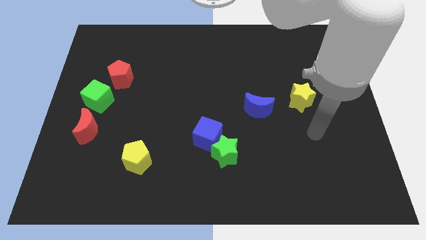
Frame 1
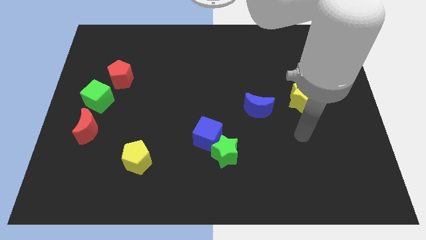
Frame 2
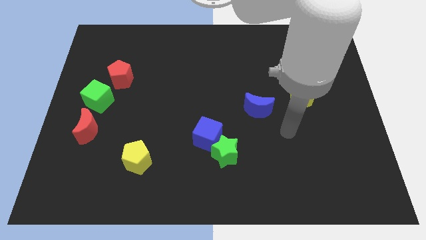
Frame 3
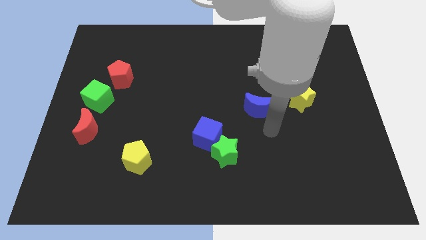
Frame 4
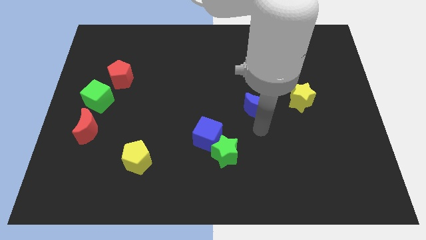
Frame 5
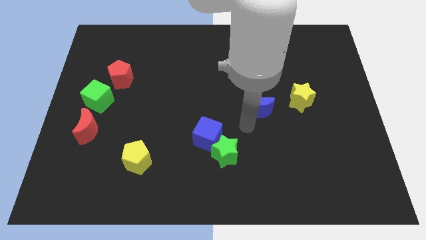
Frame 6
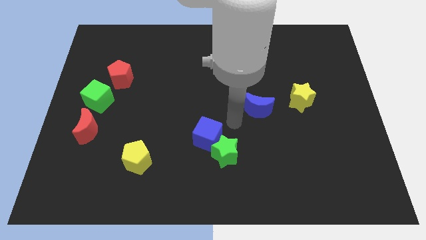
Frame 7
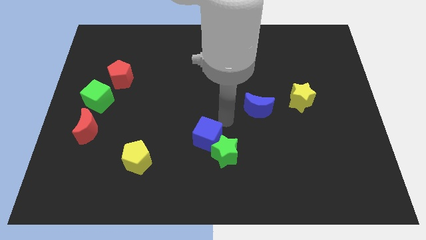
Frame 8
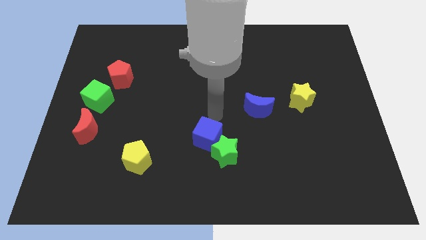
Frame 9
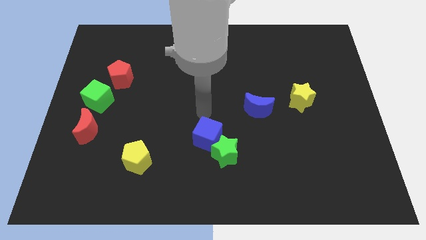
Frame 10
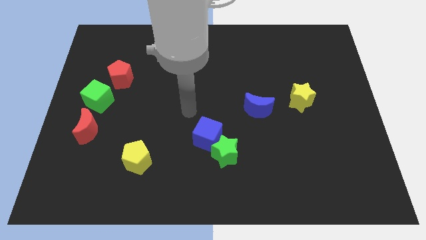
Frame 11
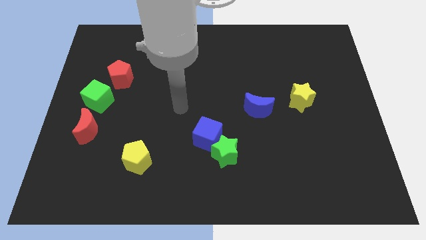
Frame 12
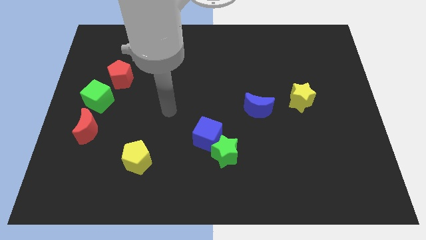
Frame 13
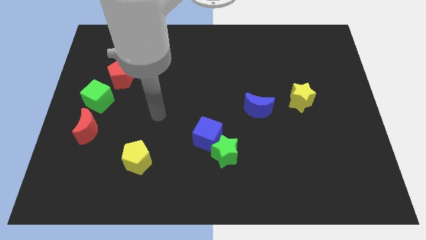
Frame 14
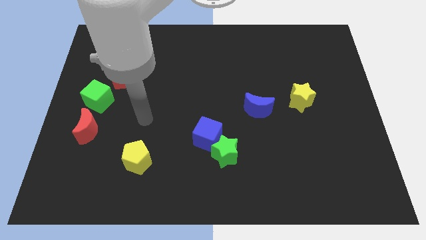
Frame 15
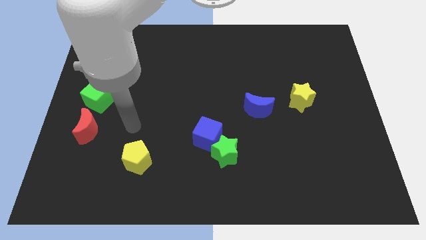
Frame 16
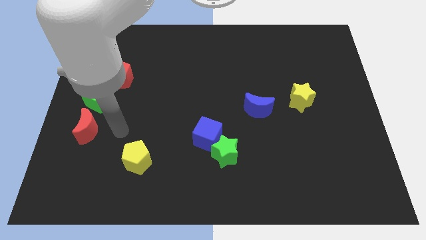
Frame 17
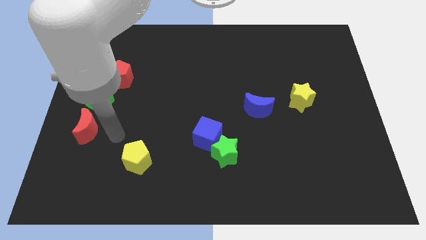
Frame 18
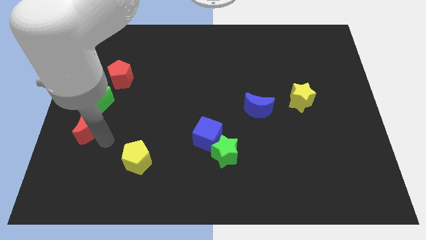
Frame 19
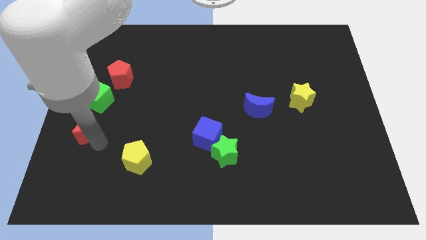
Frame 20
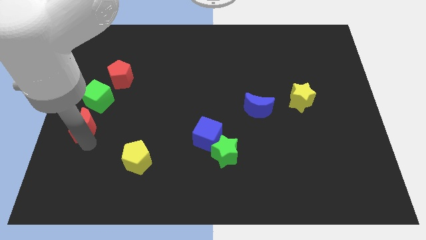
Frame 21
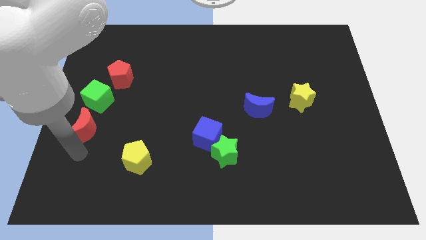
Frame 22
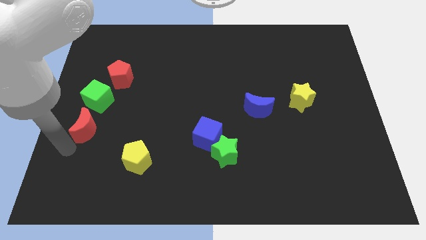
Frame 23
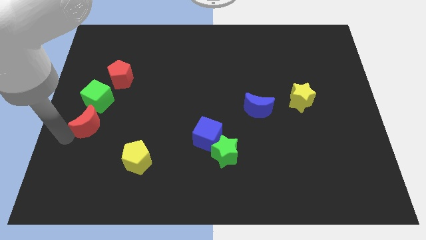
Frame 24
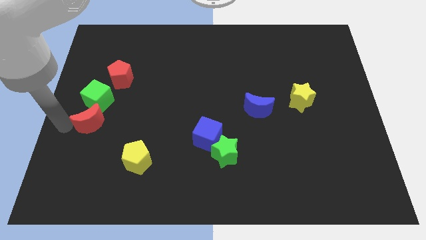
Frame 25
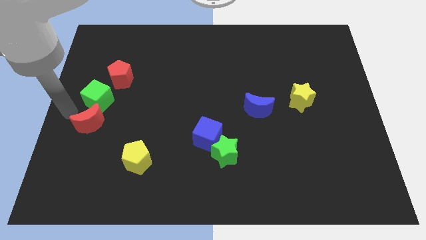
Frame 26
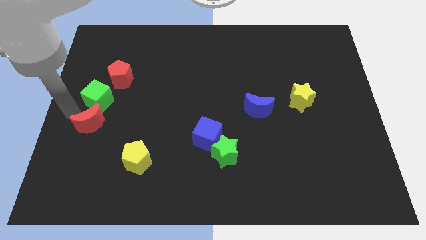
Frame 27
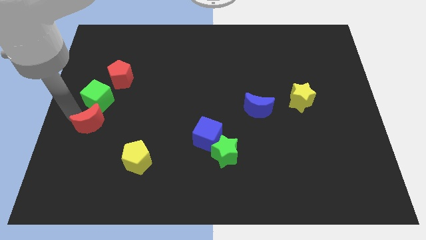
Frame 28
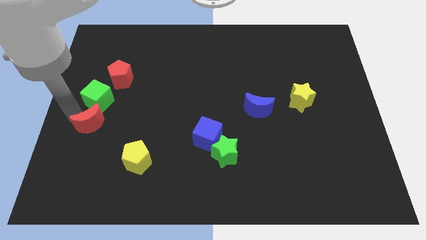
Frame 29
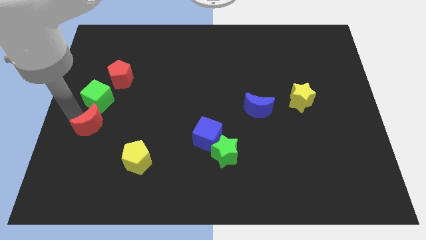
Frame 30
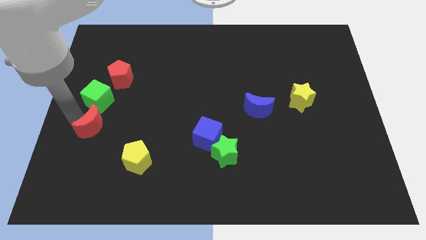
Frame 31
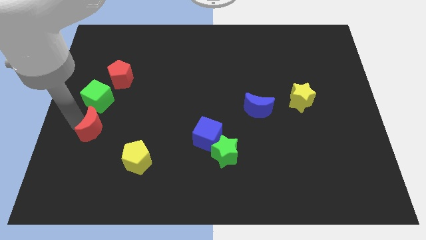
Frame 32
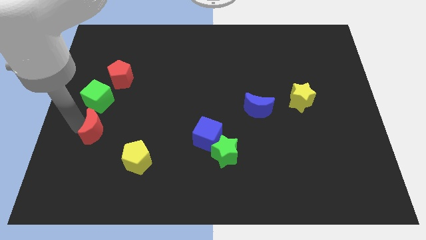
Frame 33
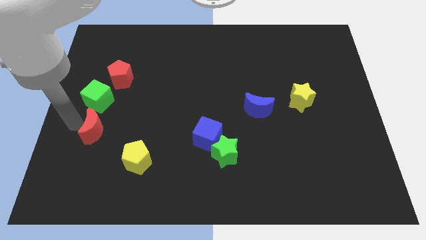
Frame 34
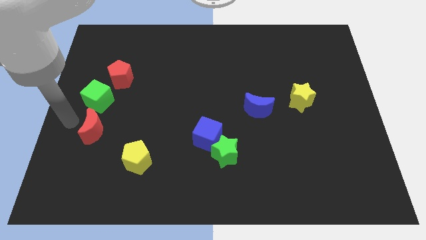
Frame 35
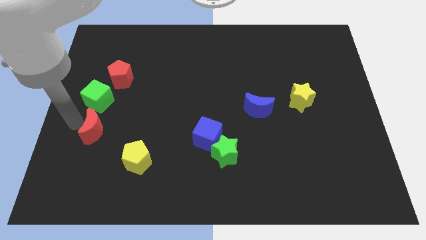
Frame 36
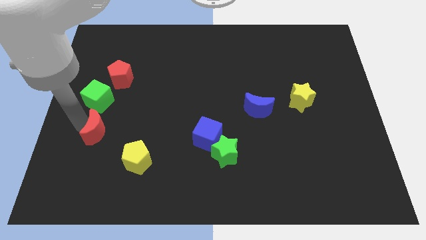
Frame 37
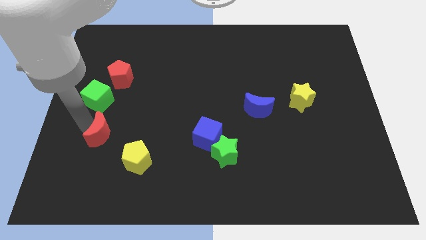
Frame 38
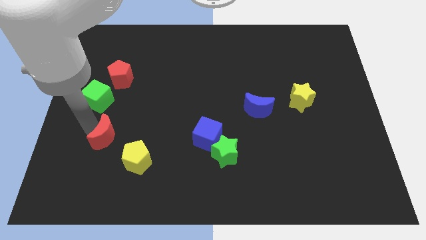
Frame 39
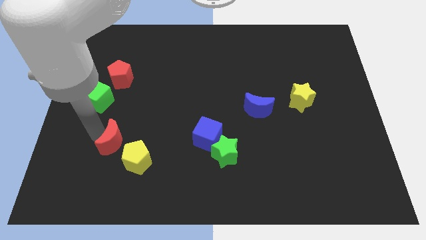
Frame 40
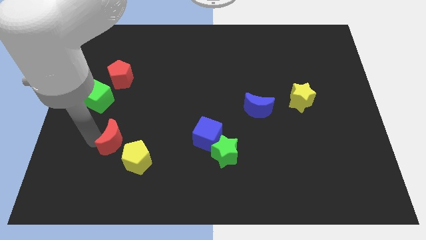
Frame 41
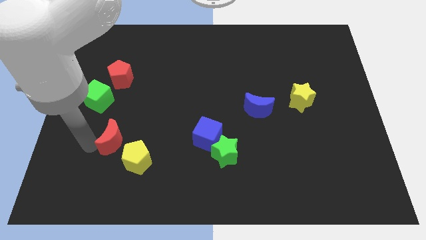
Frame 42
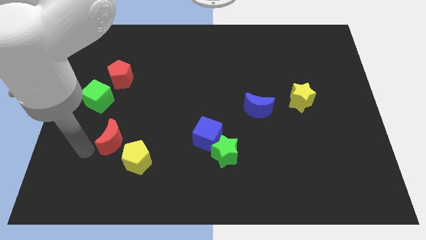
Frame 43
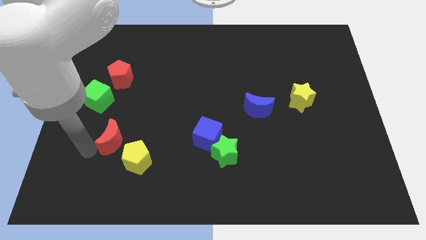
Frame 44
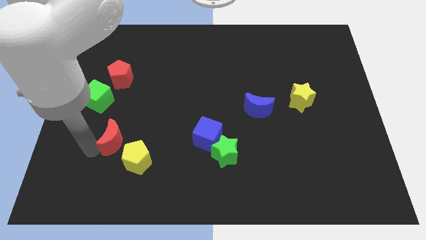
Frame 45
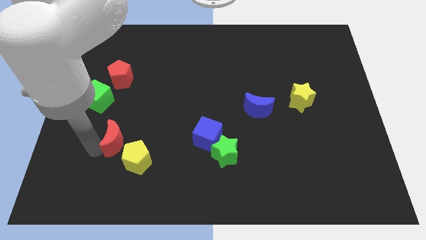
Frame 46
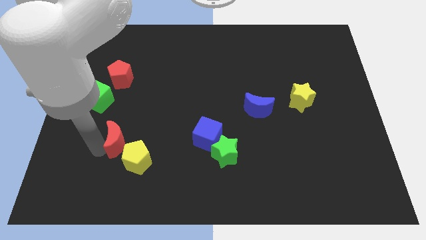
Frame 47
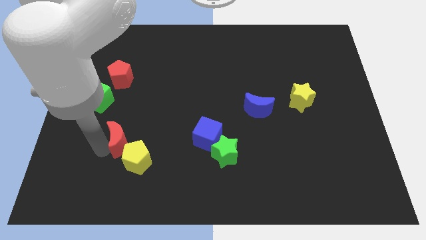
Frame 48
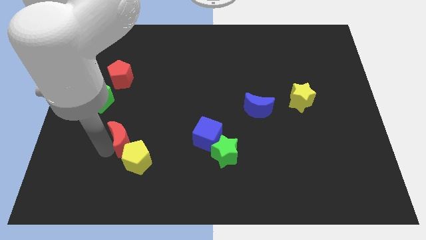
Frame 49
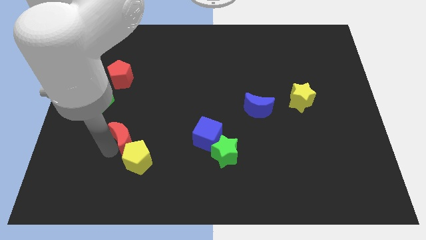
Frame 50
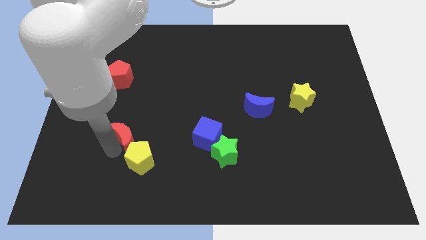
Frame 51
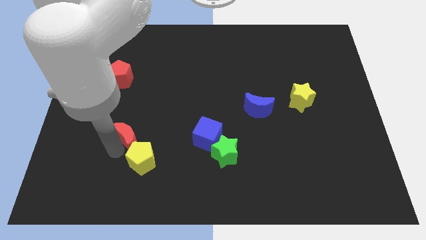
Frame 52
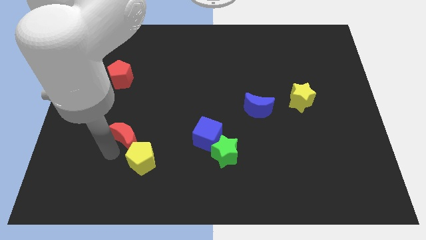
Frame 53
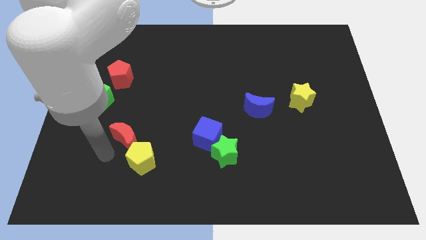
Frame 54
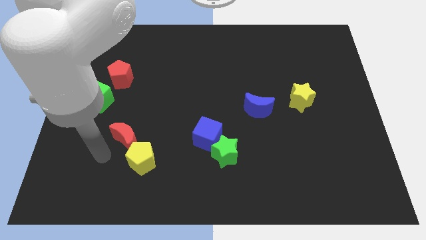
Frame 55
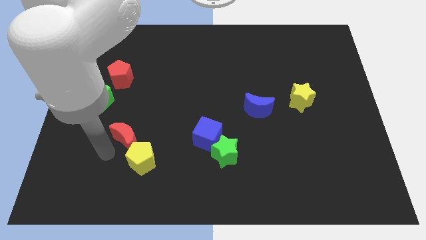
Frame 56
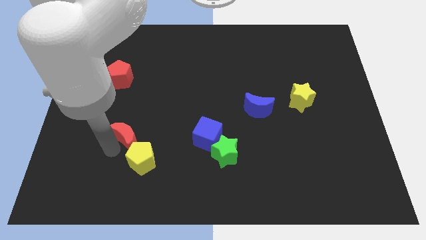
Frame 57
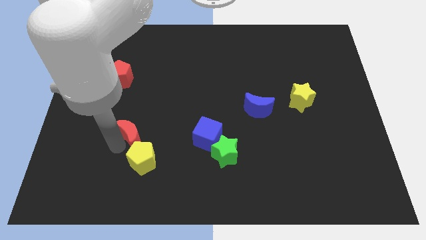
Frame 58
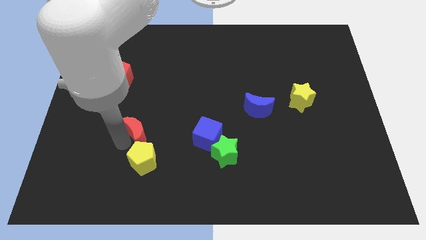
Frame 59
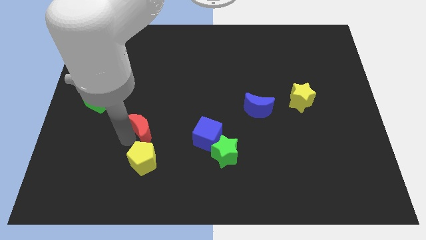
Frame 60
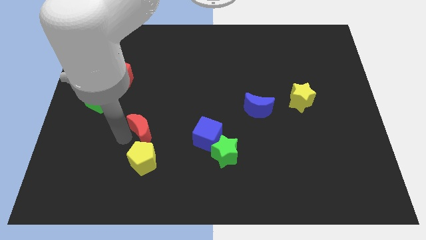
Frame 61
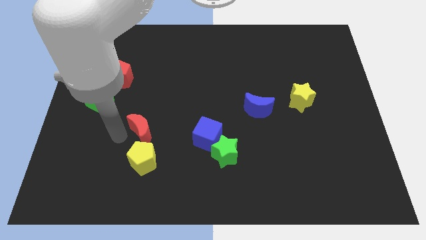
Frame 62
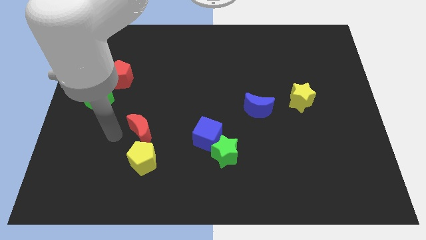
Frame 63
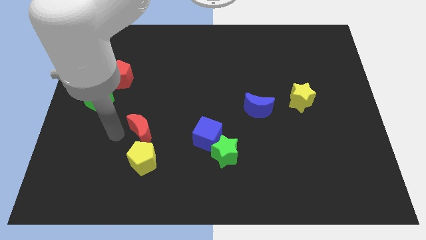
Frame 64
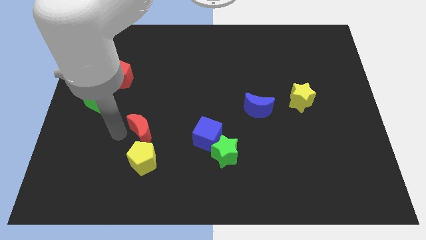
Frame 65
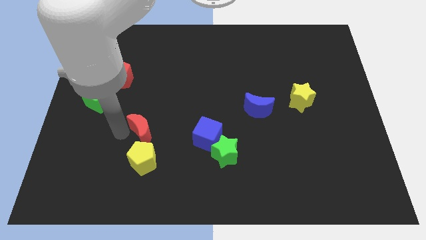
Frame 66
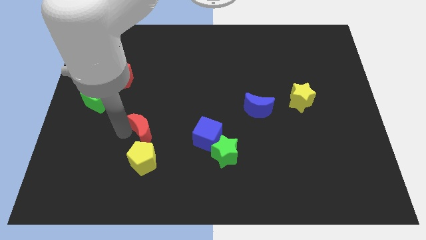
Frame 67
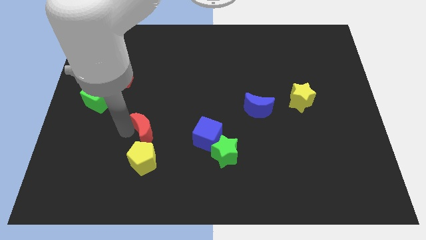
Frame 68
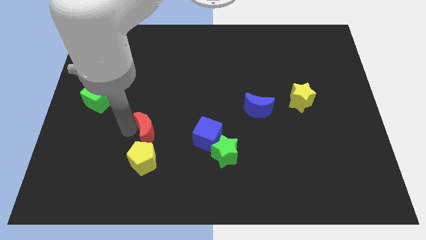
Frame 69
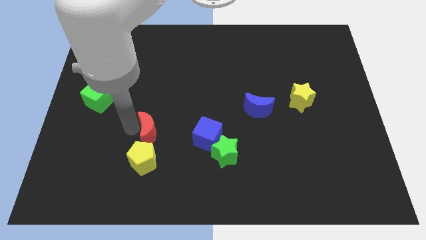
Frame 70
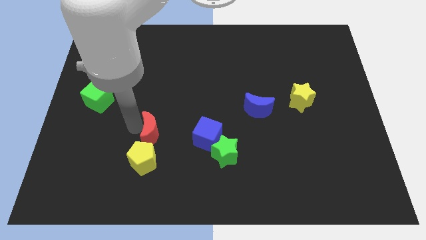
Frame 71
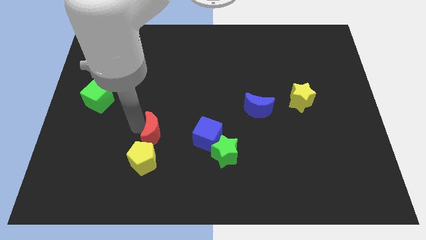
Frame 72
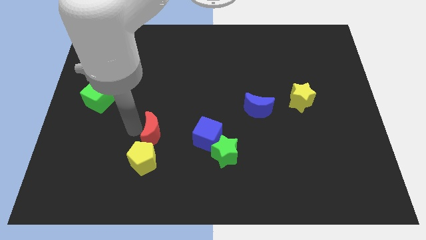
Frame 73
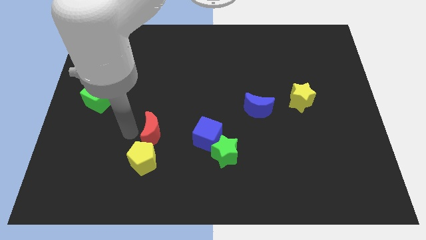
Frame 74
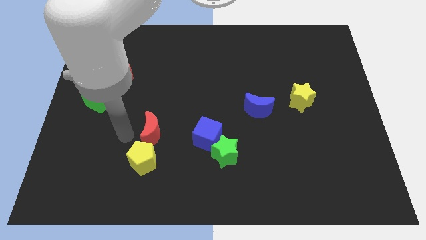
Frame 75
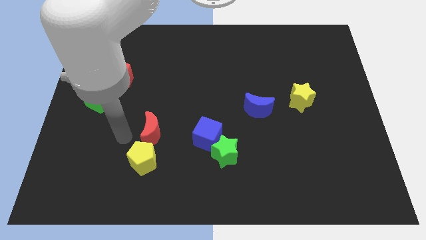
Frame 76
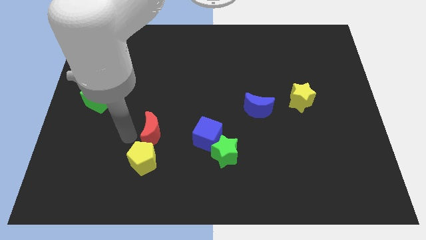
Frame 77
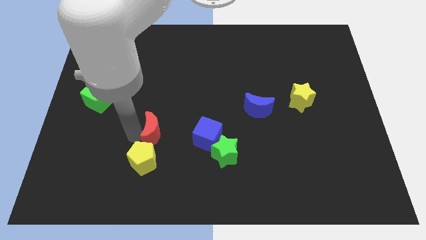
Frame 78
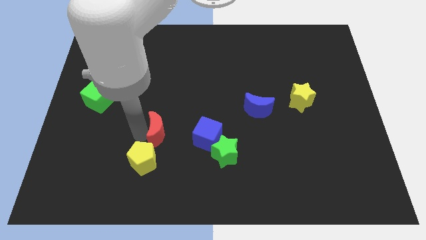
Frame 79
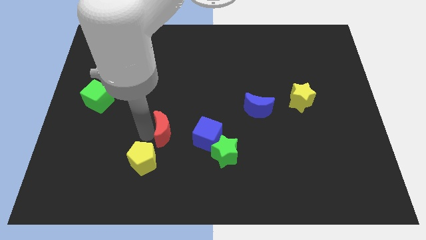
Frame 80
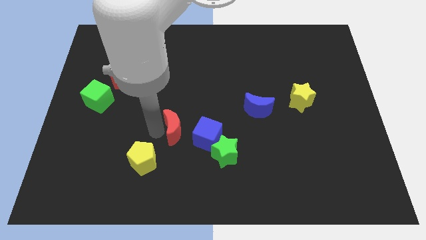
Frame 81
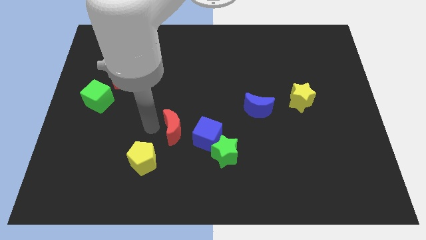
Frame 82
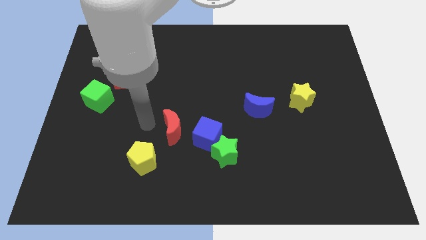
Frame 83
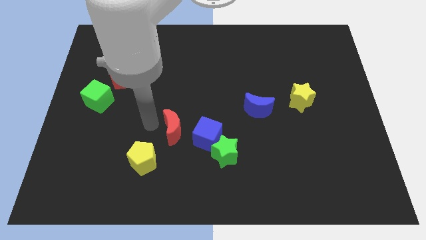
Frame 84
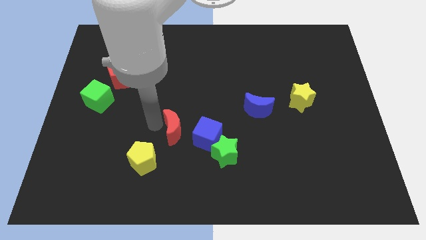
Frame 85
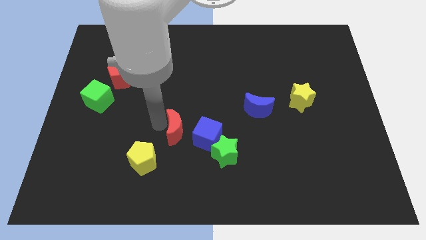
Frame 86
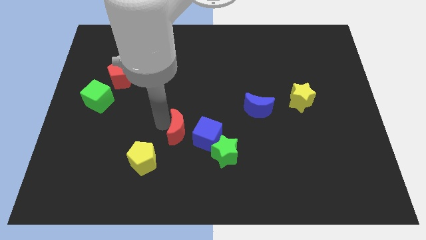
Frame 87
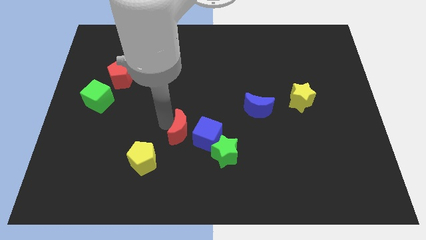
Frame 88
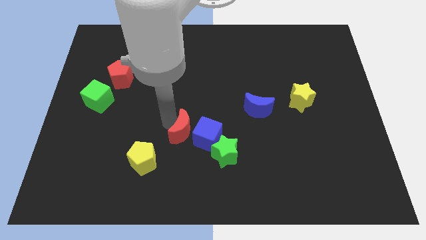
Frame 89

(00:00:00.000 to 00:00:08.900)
put the red moon to the blue cube
